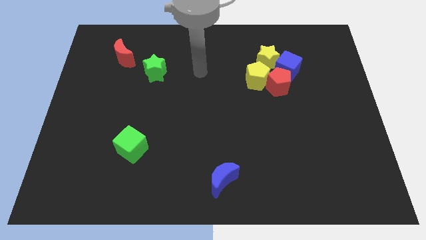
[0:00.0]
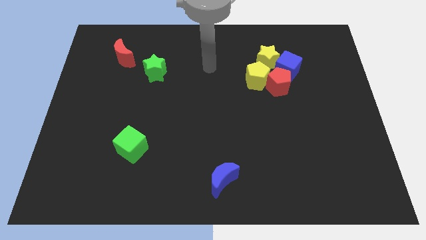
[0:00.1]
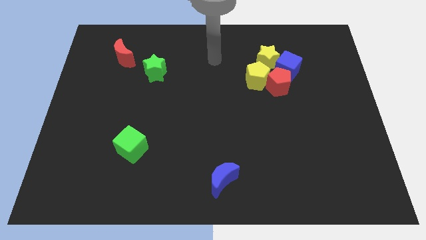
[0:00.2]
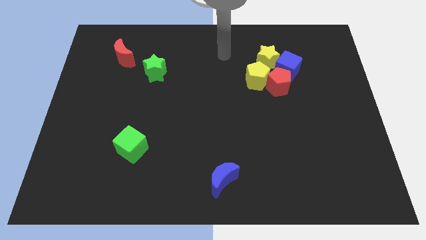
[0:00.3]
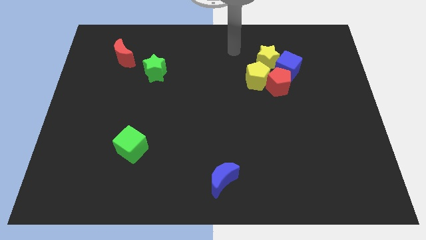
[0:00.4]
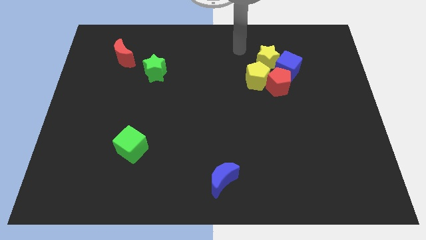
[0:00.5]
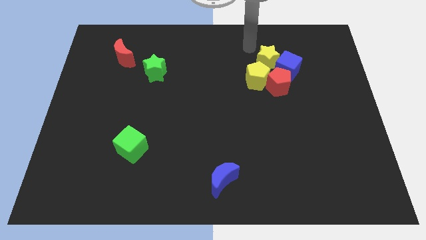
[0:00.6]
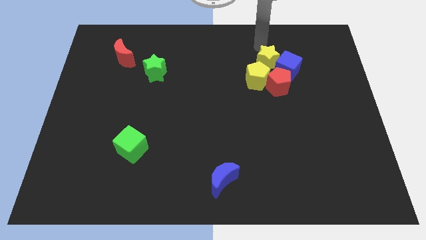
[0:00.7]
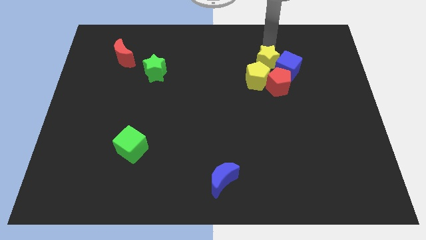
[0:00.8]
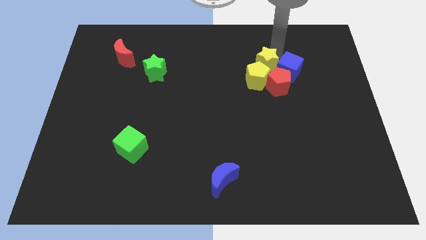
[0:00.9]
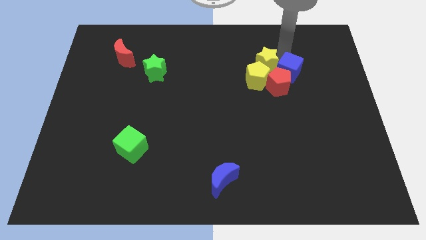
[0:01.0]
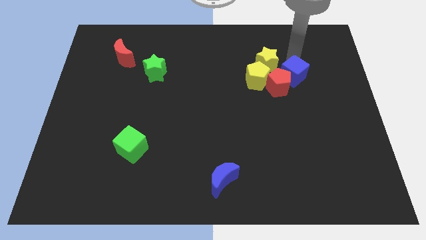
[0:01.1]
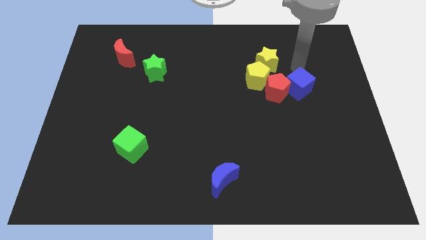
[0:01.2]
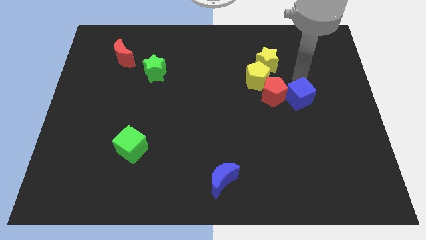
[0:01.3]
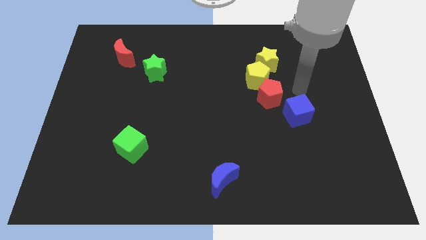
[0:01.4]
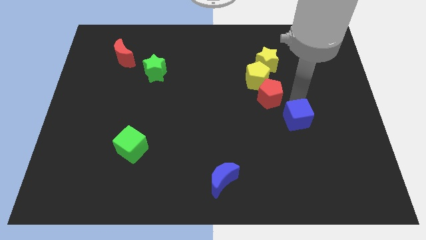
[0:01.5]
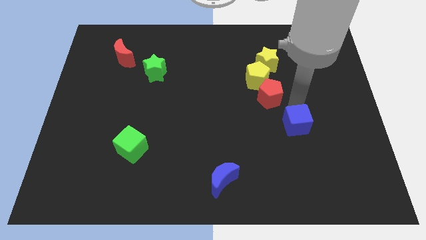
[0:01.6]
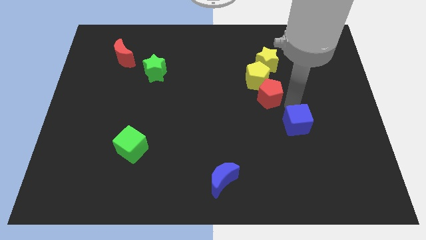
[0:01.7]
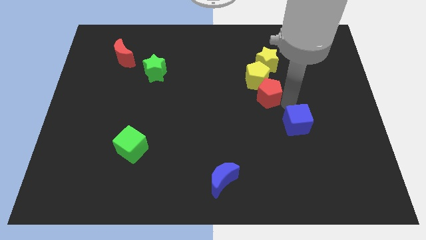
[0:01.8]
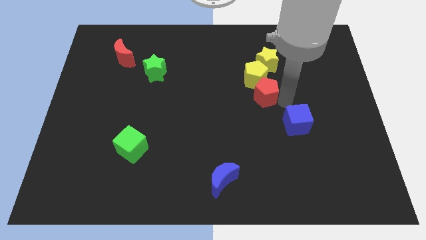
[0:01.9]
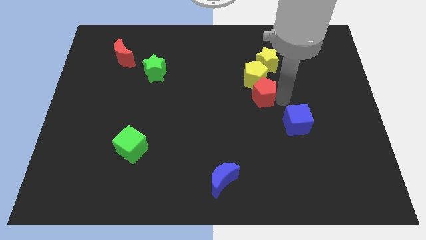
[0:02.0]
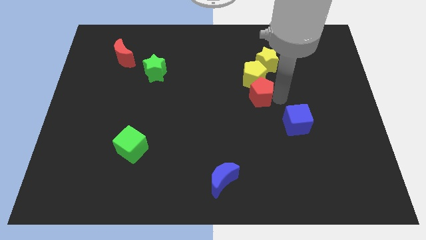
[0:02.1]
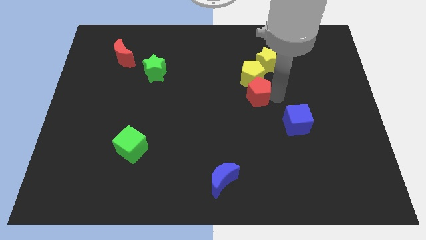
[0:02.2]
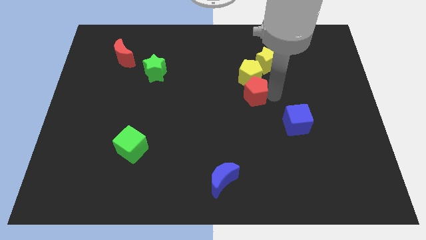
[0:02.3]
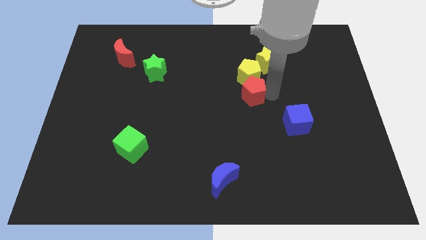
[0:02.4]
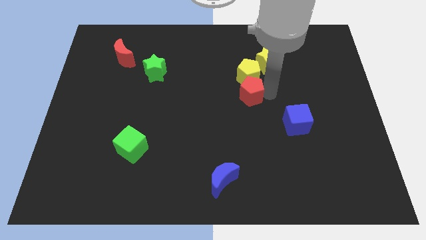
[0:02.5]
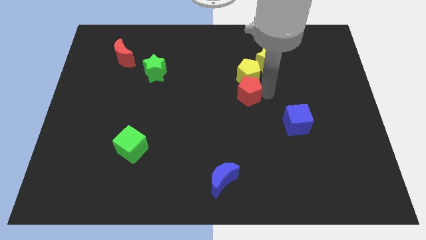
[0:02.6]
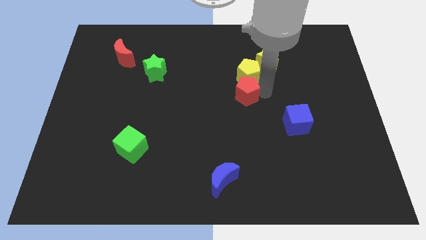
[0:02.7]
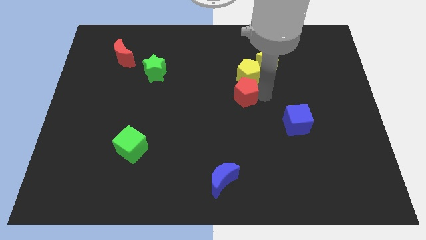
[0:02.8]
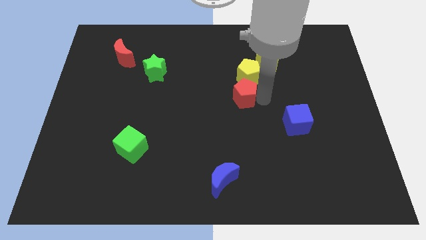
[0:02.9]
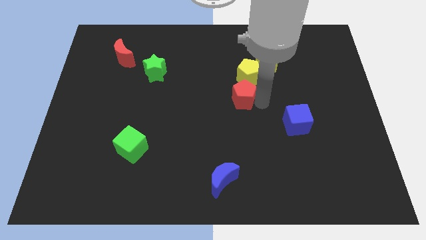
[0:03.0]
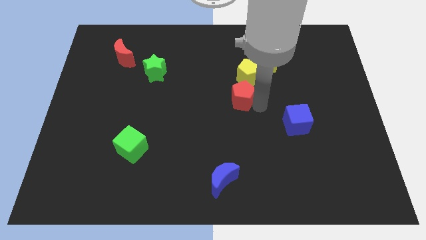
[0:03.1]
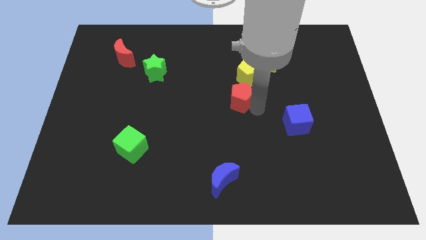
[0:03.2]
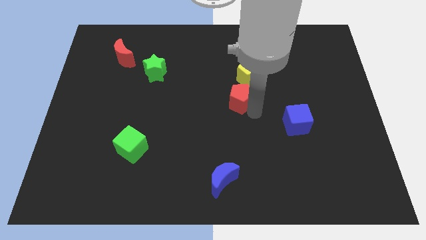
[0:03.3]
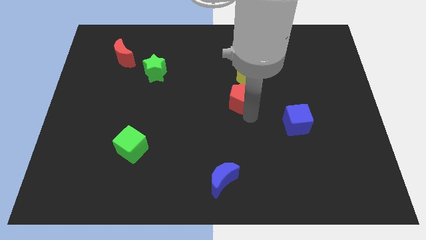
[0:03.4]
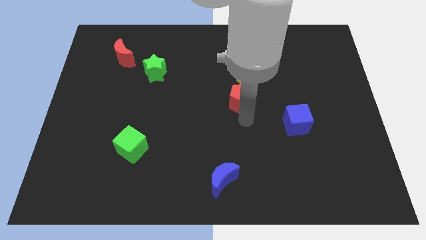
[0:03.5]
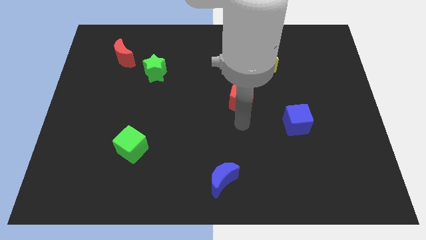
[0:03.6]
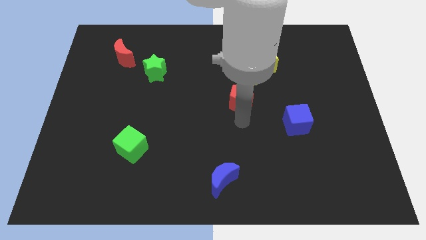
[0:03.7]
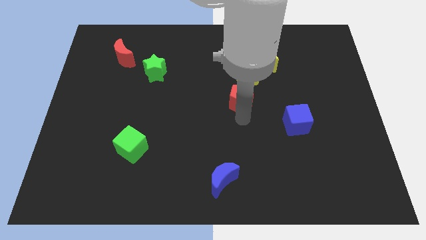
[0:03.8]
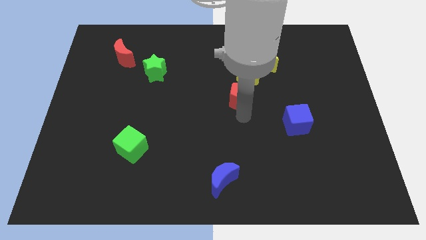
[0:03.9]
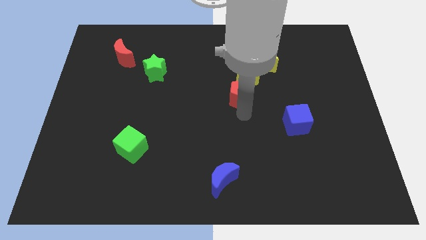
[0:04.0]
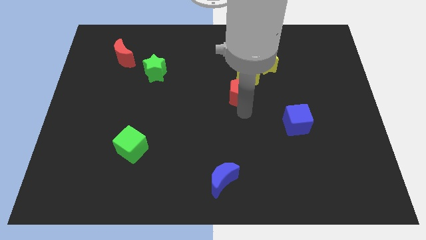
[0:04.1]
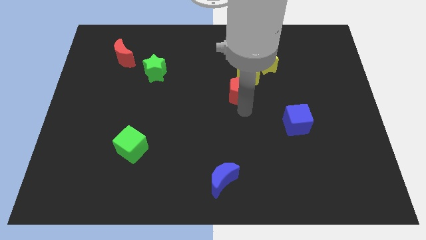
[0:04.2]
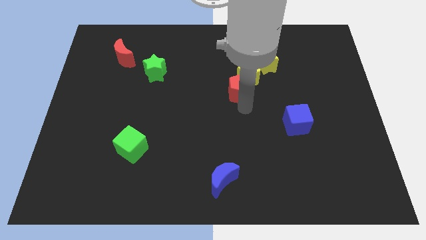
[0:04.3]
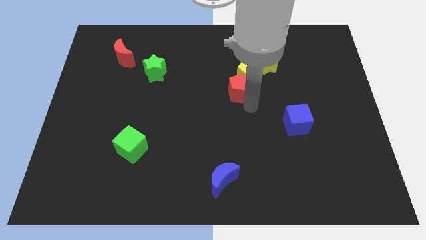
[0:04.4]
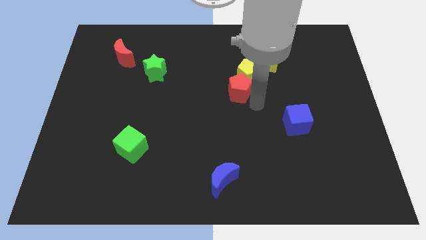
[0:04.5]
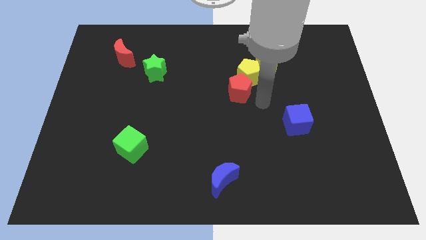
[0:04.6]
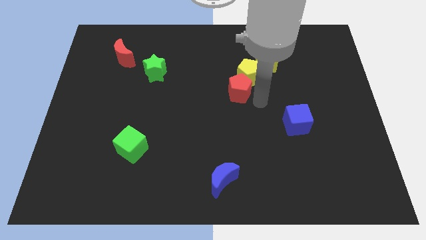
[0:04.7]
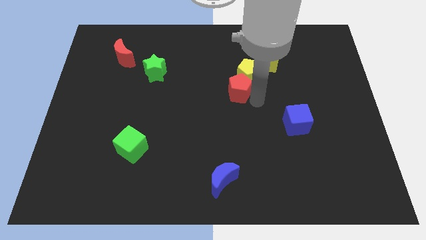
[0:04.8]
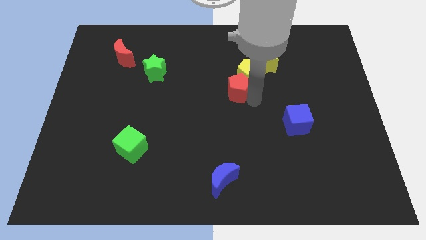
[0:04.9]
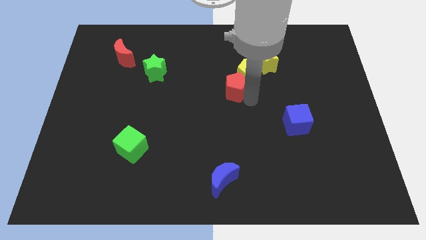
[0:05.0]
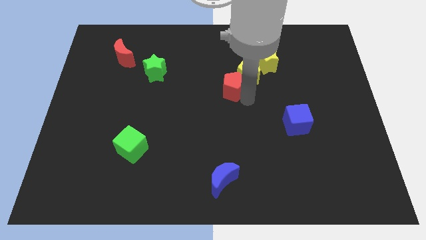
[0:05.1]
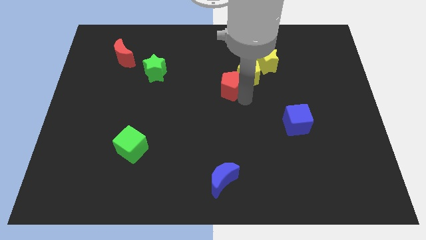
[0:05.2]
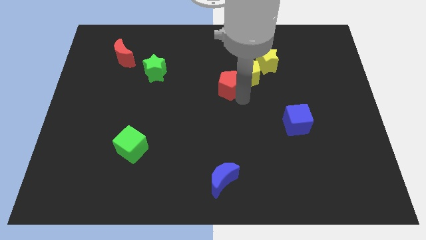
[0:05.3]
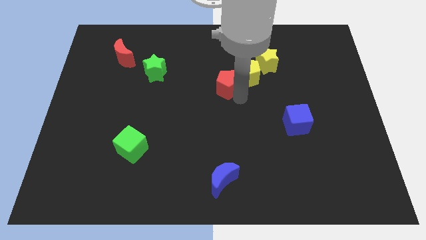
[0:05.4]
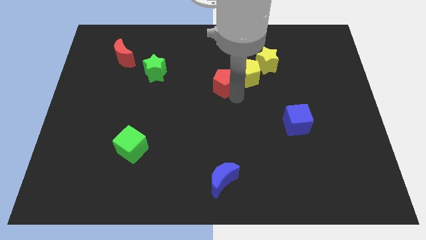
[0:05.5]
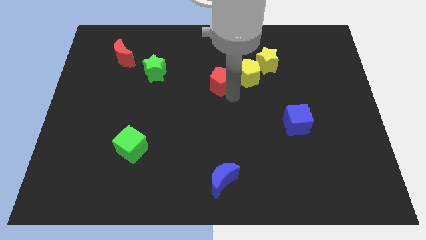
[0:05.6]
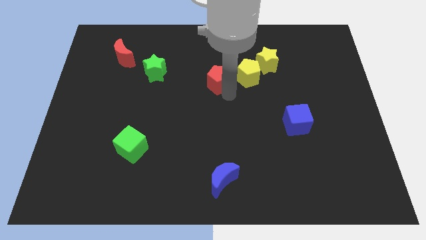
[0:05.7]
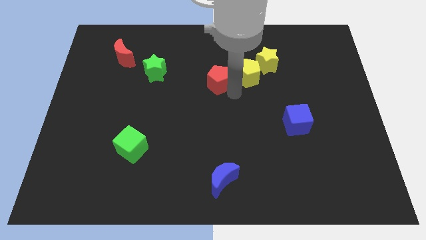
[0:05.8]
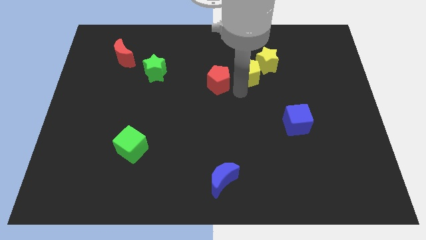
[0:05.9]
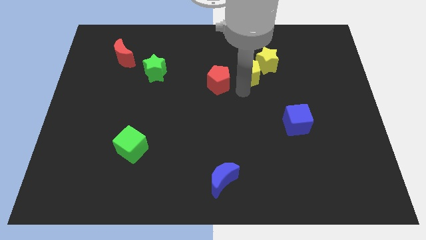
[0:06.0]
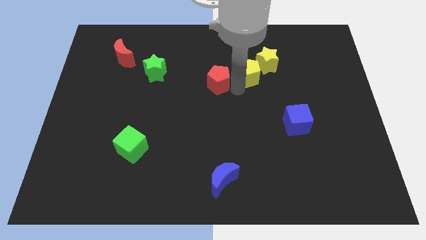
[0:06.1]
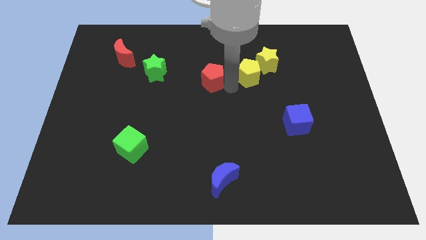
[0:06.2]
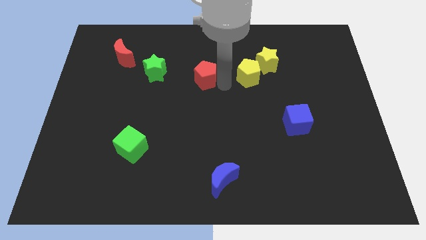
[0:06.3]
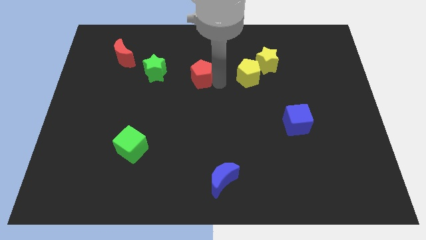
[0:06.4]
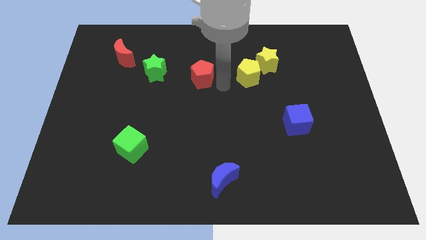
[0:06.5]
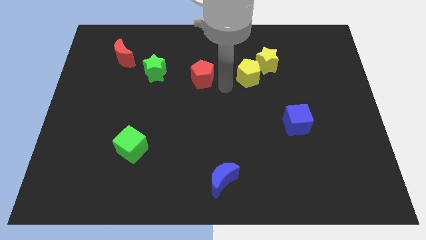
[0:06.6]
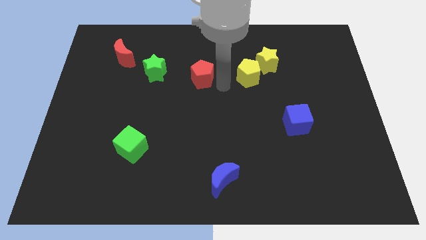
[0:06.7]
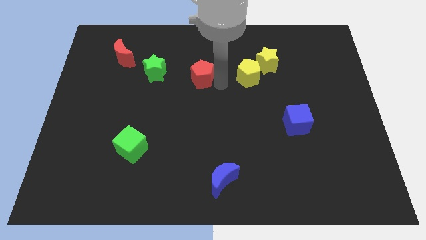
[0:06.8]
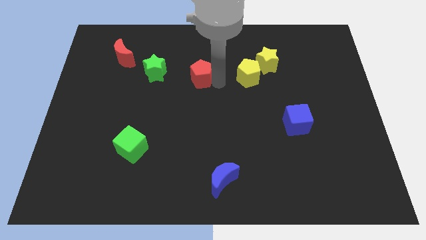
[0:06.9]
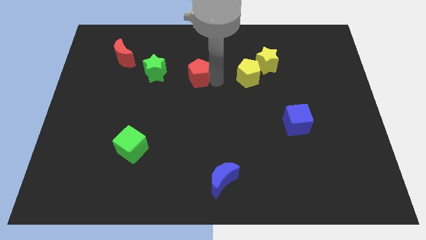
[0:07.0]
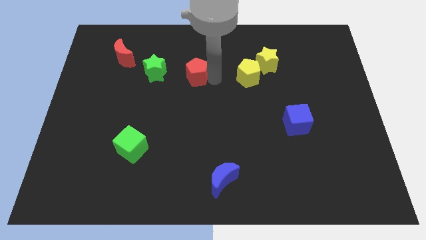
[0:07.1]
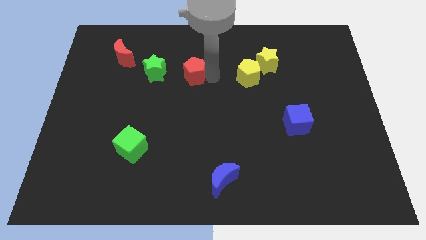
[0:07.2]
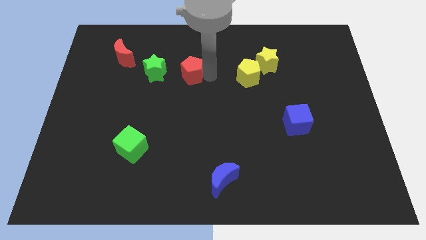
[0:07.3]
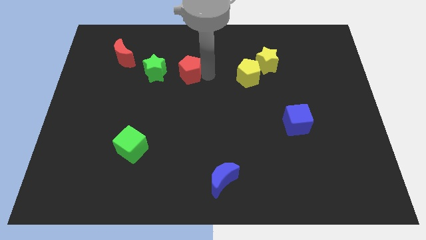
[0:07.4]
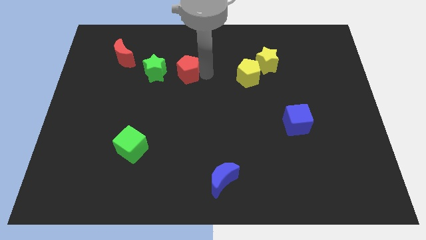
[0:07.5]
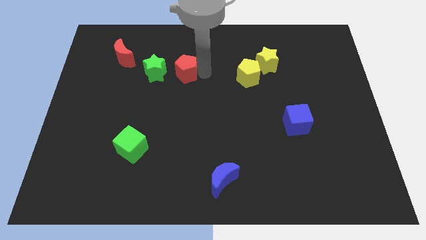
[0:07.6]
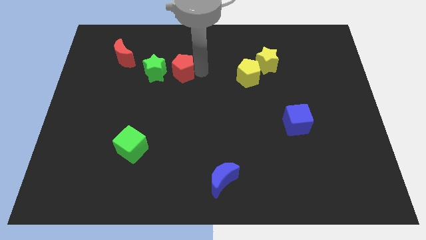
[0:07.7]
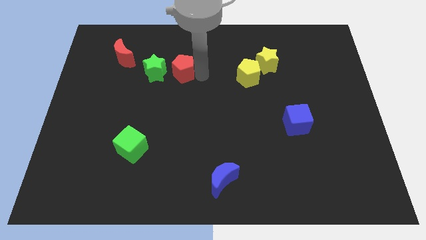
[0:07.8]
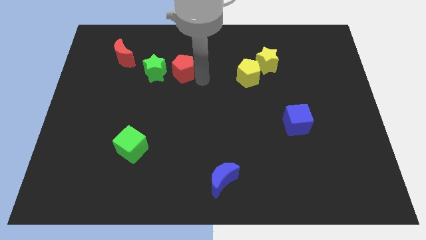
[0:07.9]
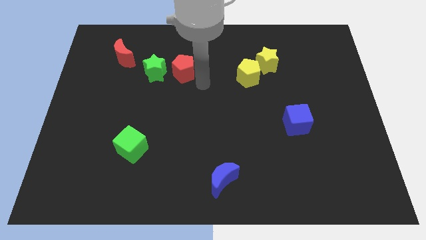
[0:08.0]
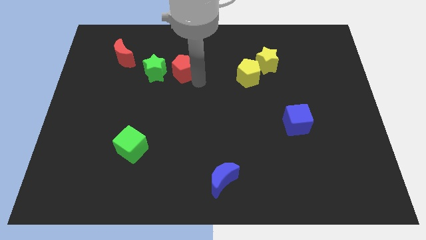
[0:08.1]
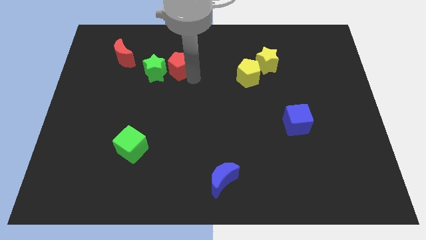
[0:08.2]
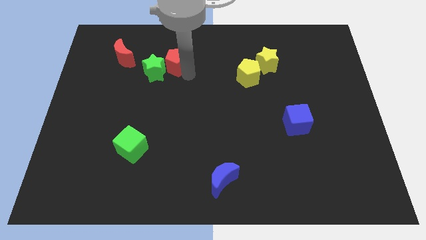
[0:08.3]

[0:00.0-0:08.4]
move the red pentagon to the right side of the red moon
